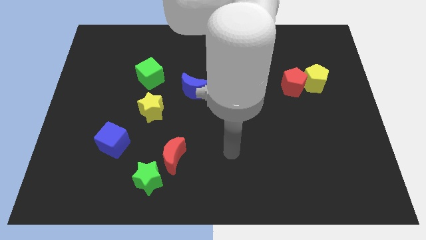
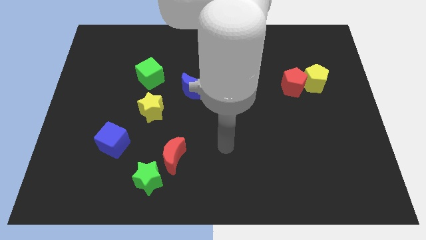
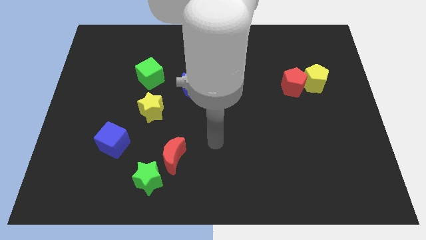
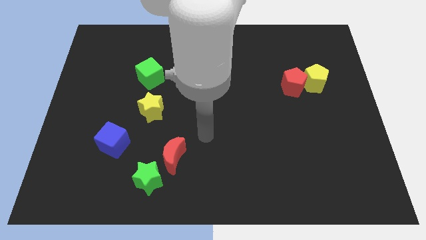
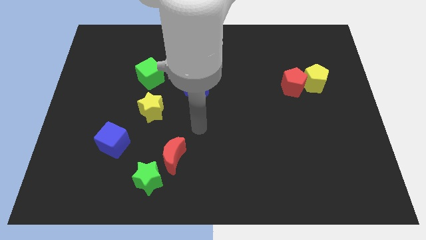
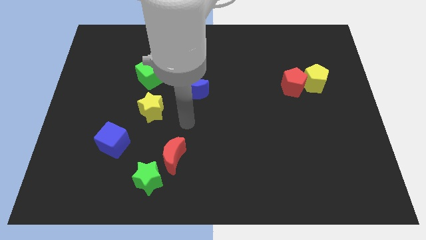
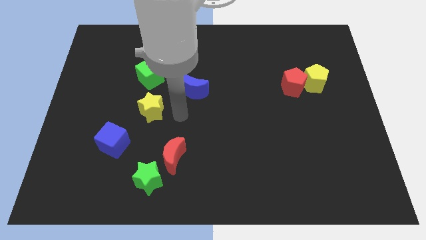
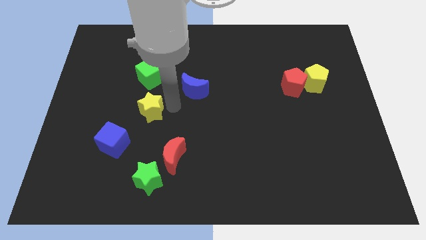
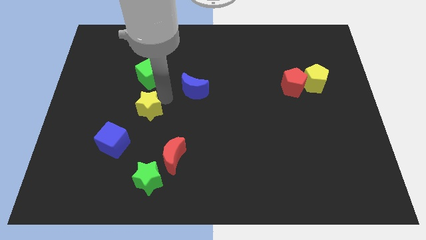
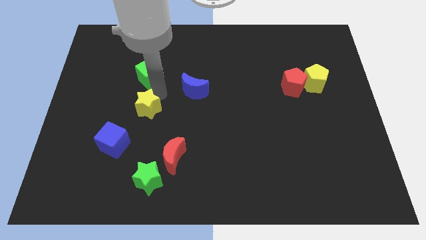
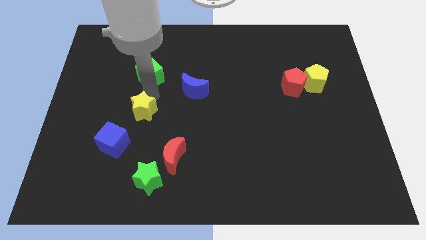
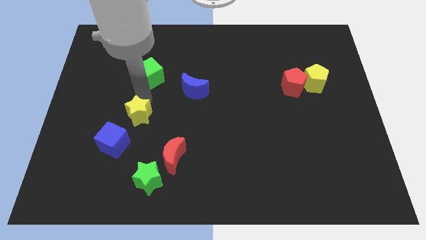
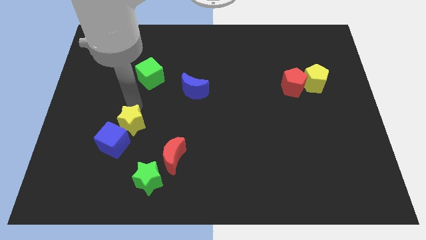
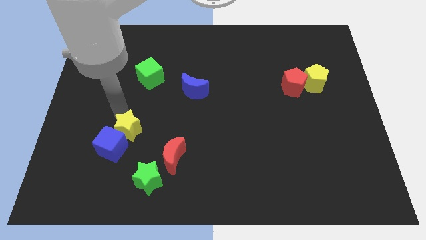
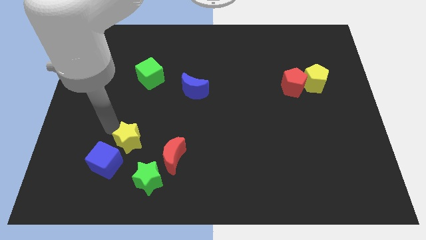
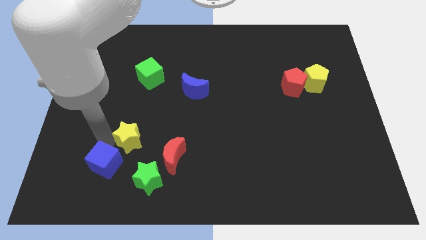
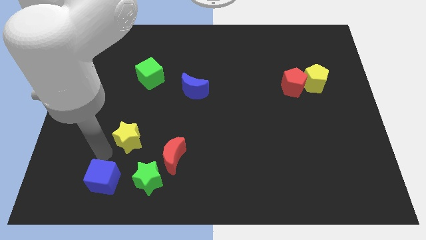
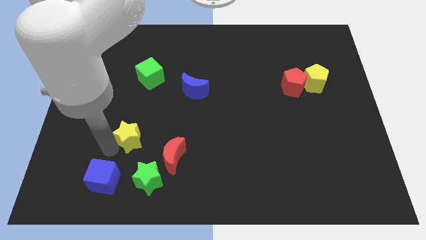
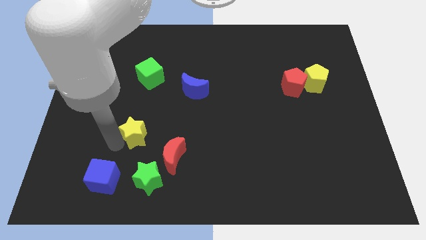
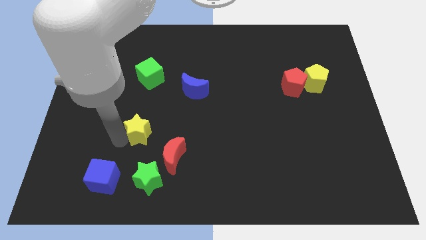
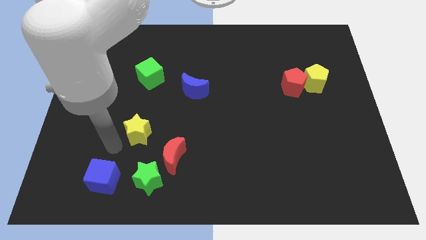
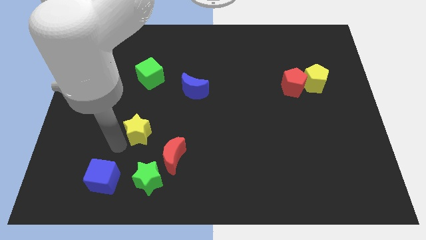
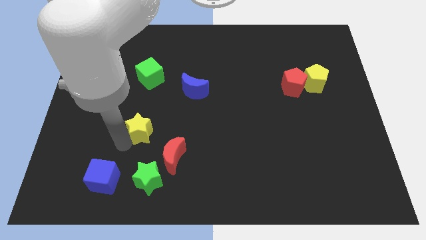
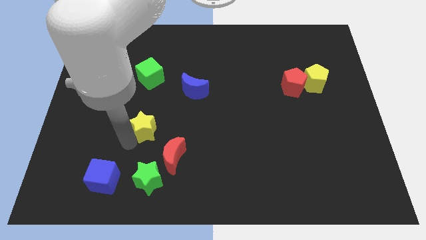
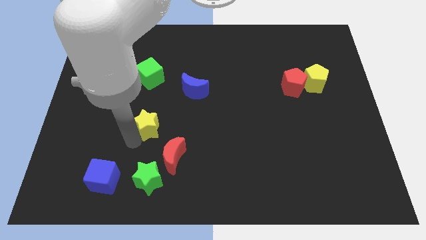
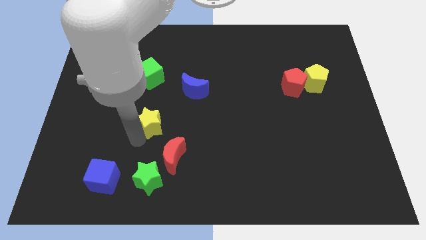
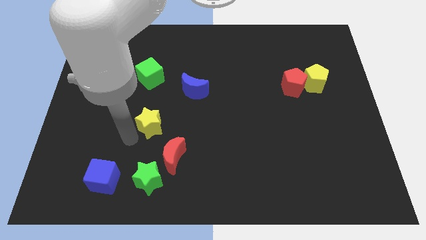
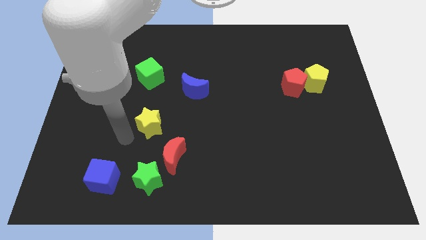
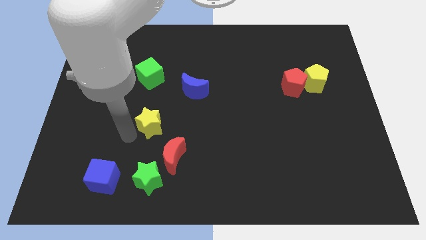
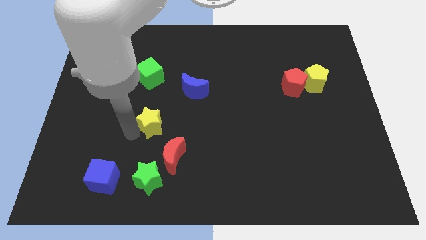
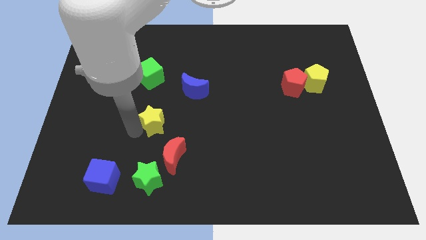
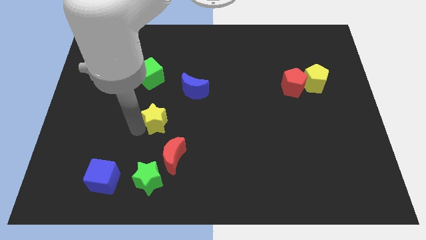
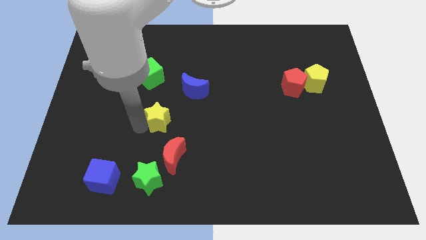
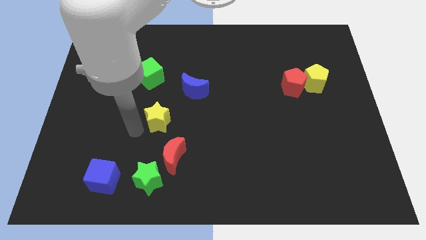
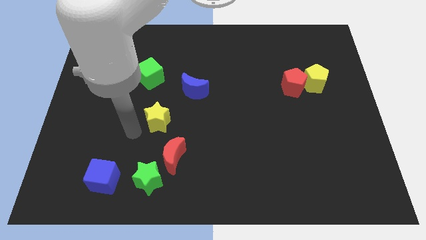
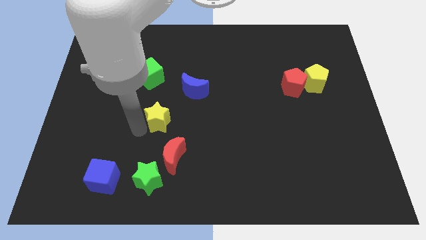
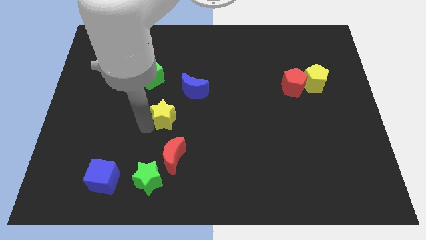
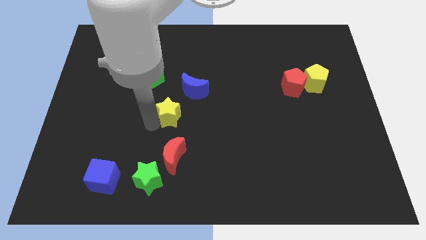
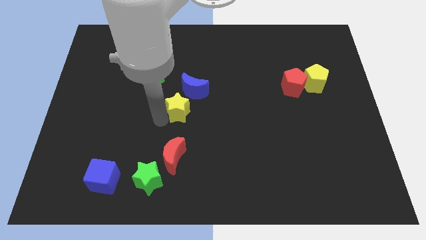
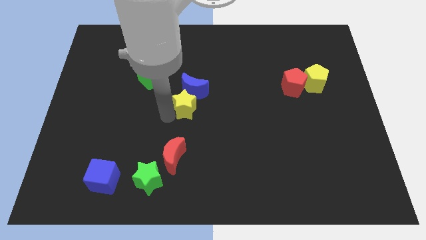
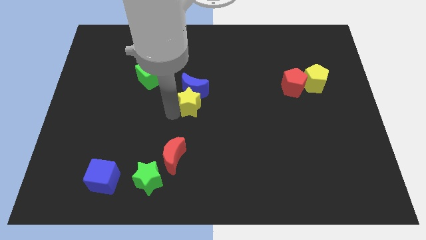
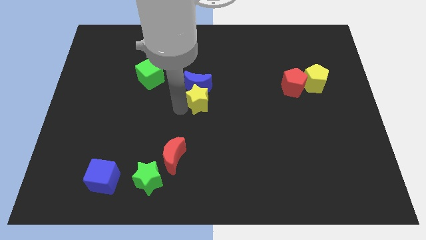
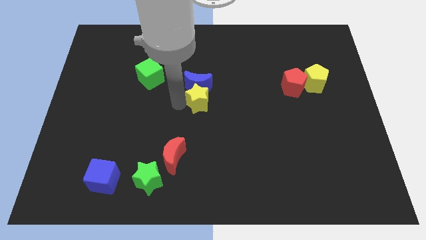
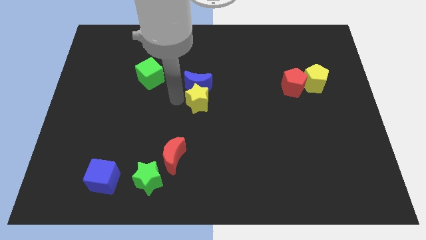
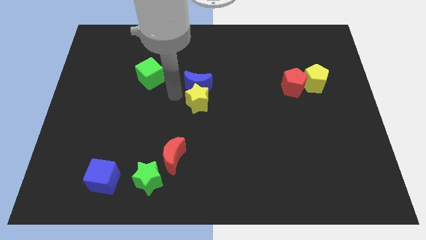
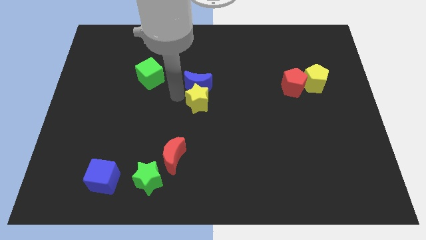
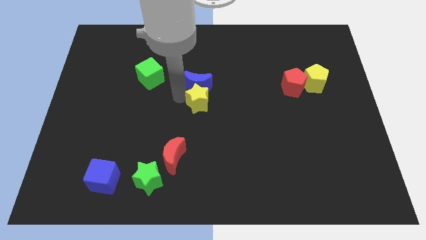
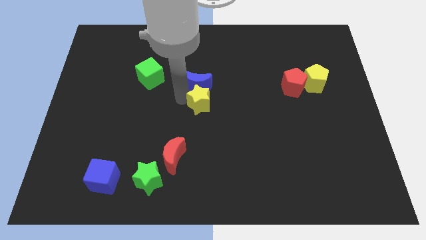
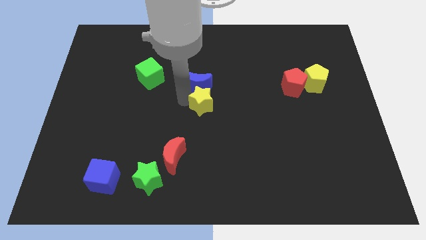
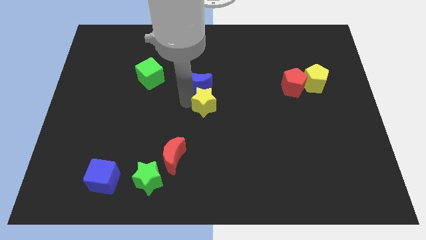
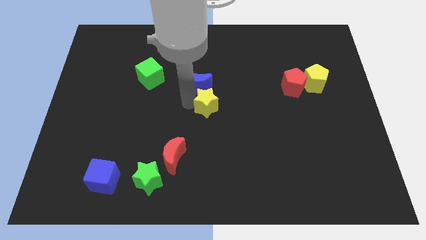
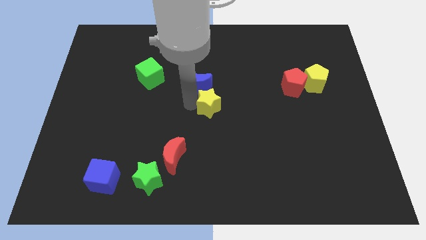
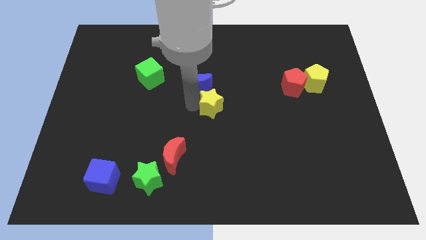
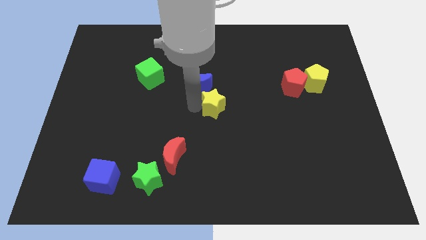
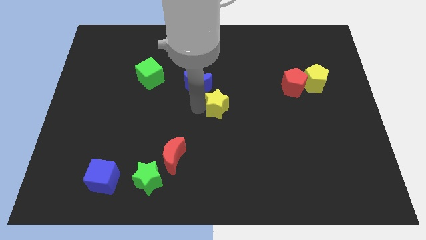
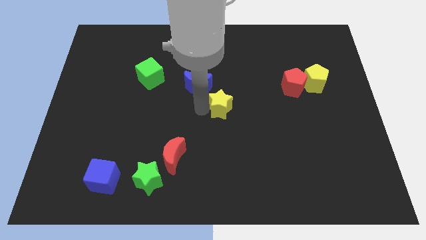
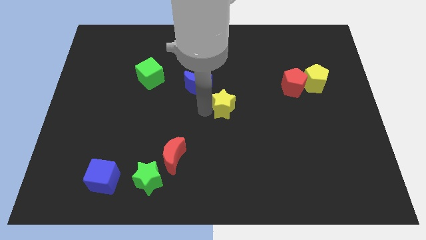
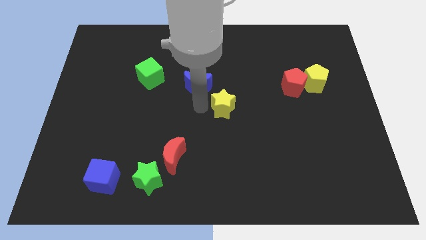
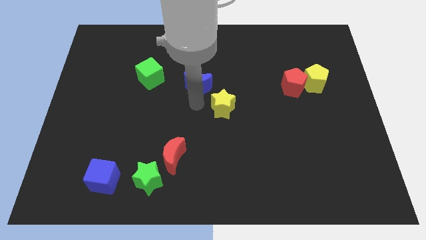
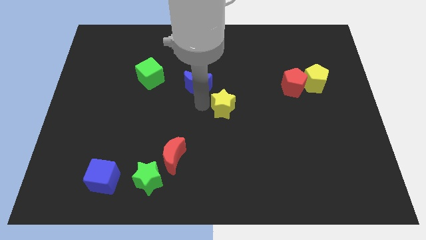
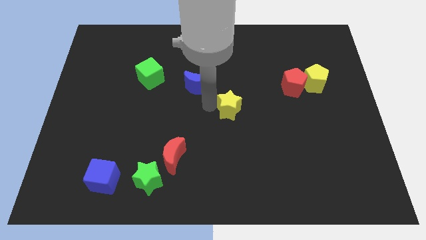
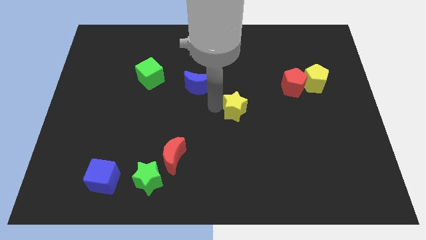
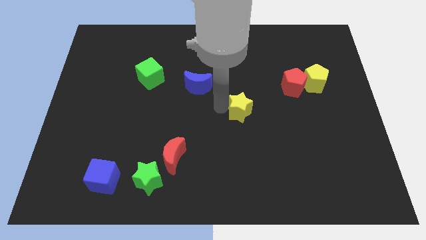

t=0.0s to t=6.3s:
move the yellow star right

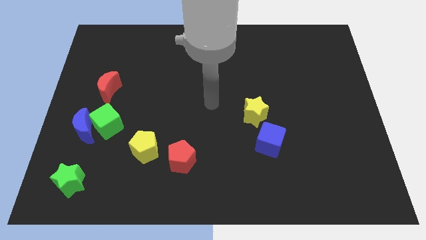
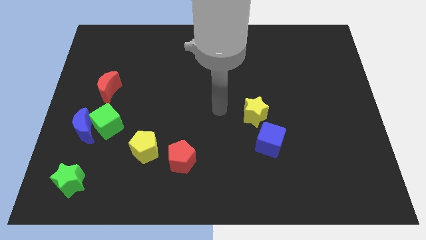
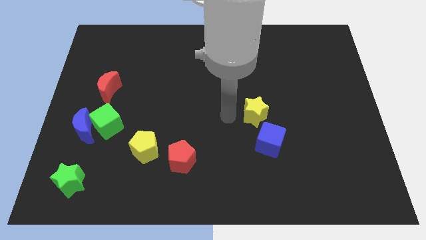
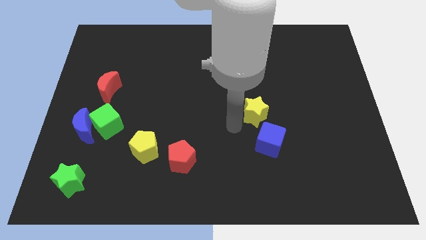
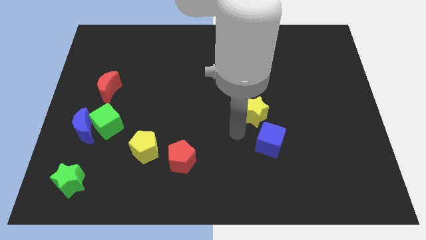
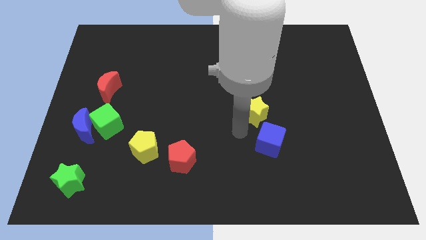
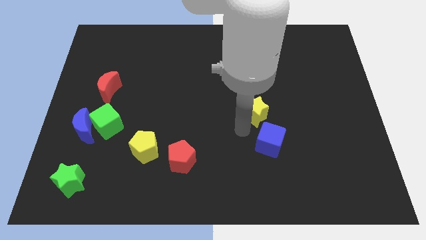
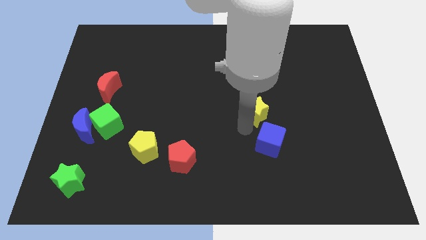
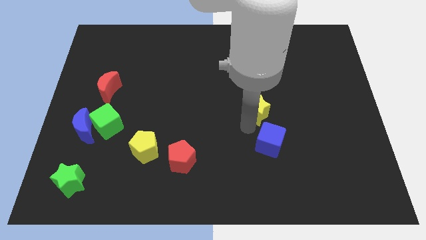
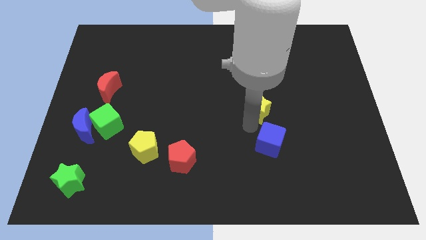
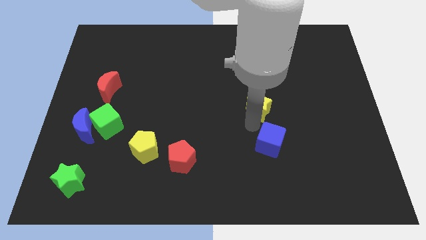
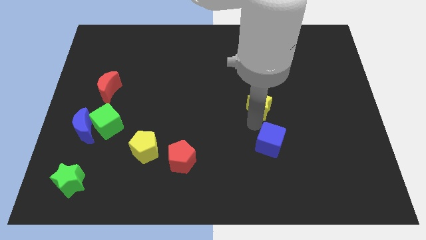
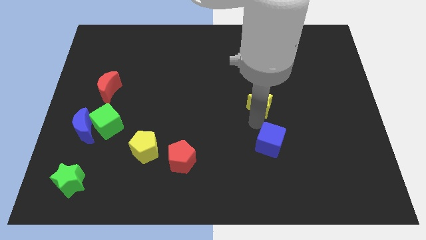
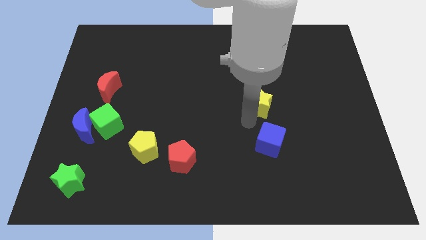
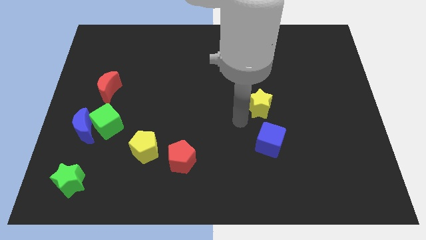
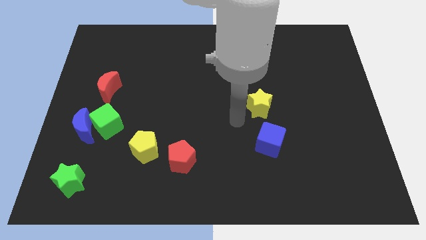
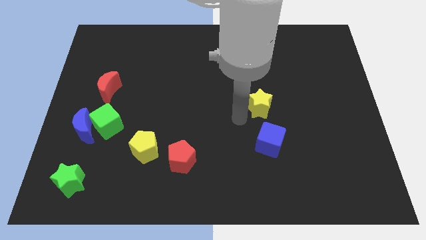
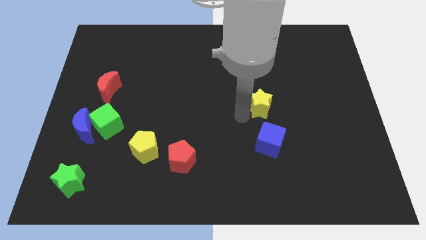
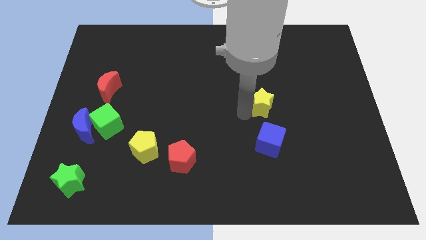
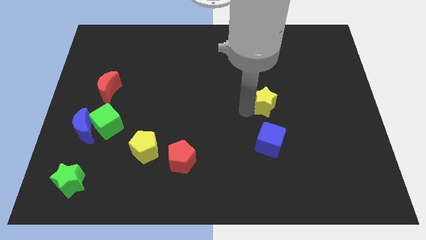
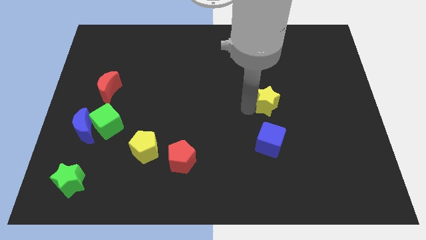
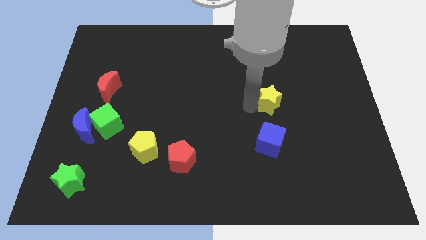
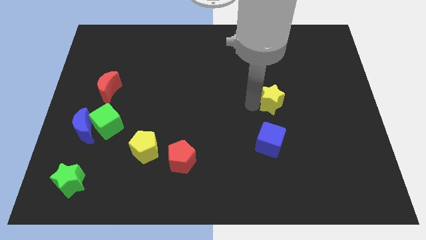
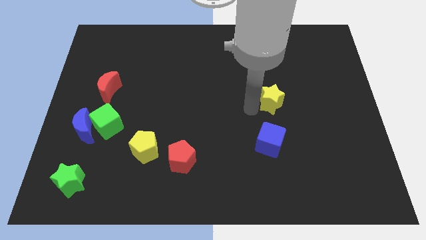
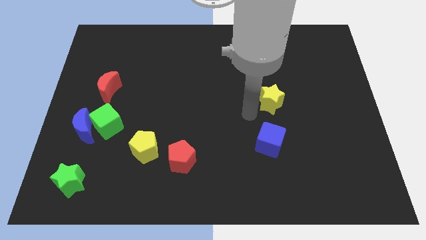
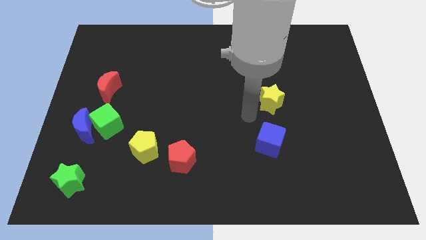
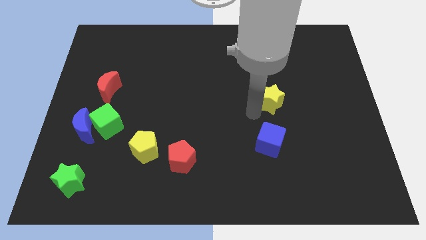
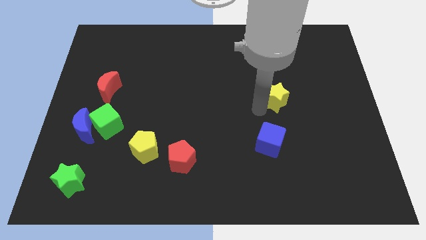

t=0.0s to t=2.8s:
slide the yellow star up and then right a little bit
